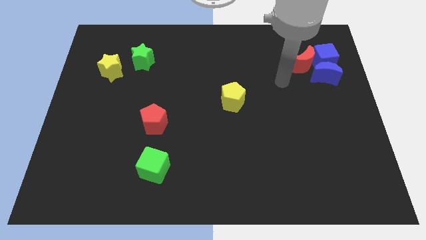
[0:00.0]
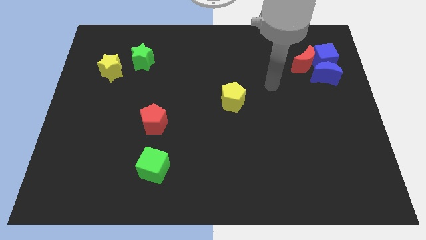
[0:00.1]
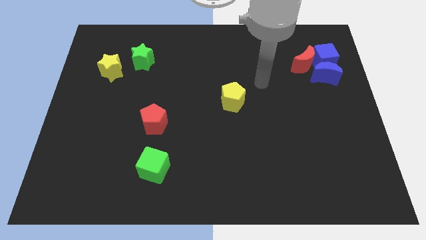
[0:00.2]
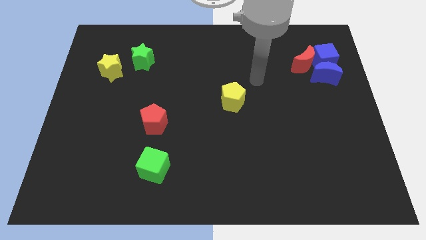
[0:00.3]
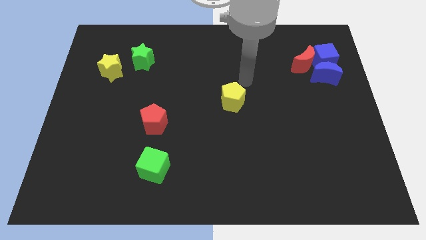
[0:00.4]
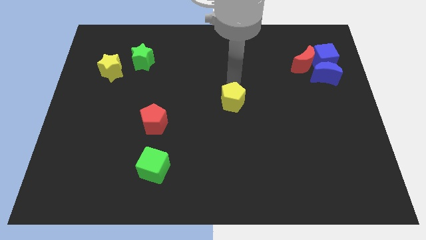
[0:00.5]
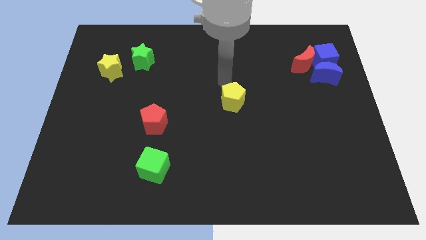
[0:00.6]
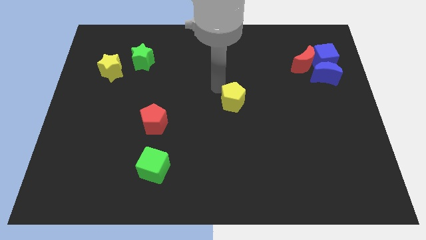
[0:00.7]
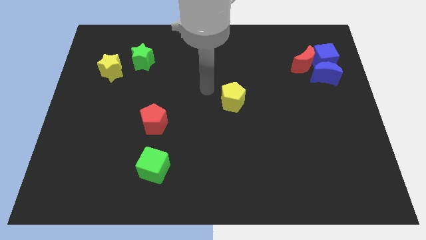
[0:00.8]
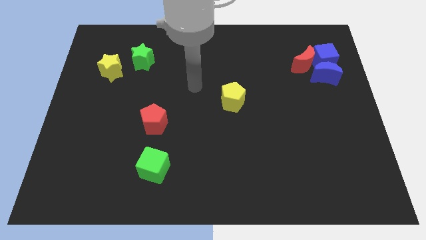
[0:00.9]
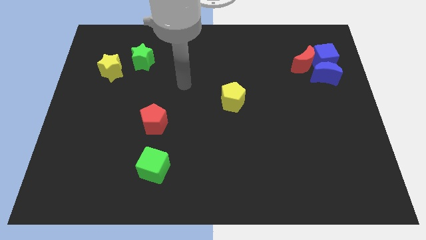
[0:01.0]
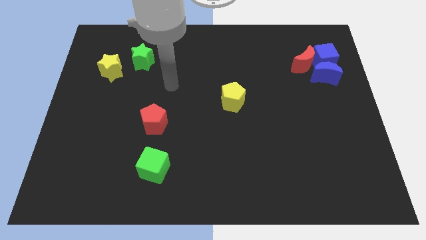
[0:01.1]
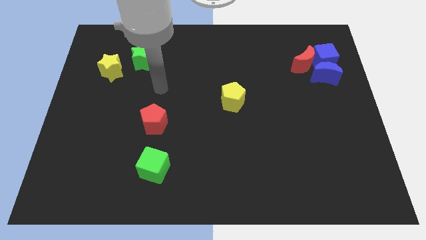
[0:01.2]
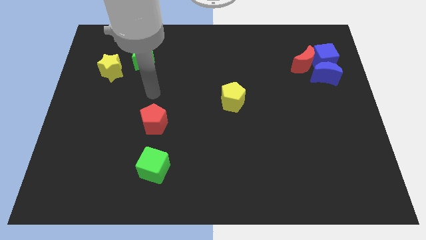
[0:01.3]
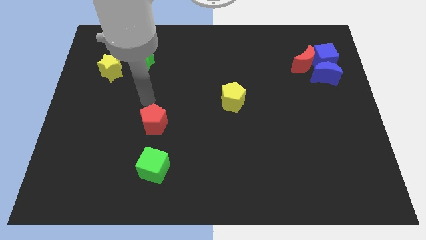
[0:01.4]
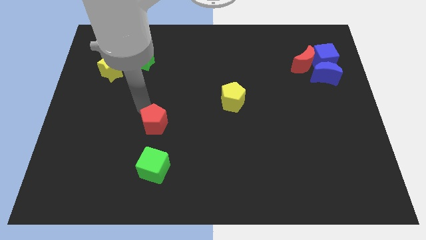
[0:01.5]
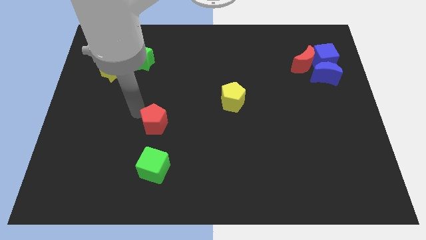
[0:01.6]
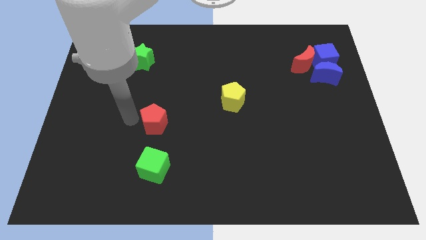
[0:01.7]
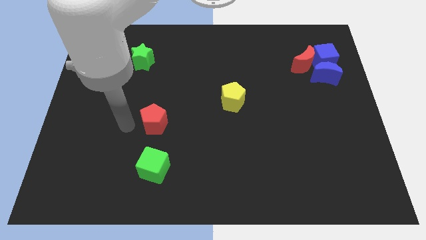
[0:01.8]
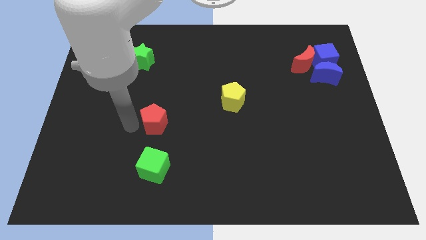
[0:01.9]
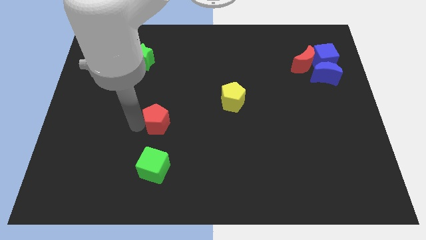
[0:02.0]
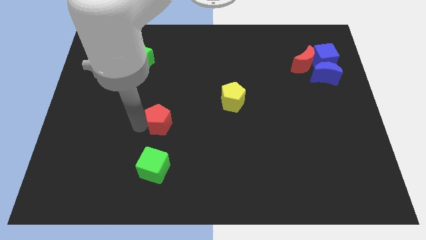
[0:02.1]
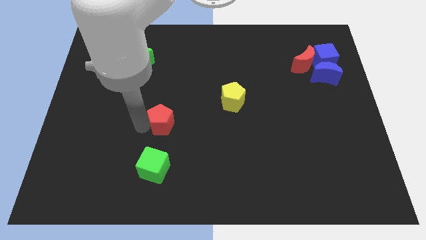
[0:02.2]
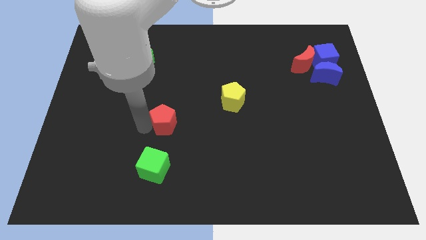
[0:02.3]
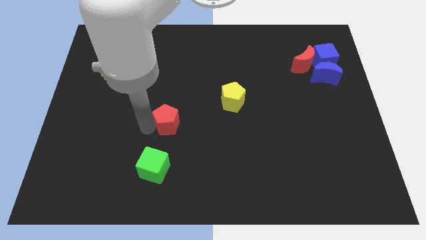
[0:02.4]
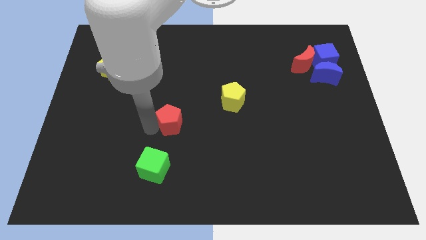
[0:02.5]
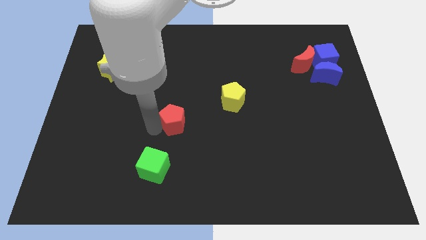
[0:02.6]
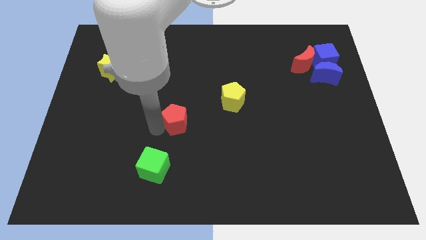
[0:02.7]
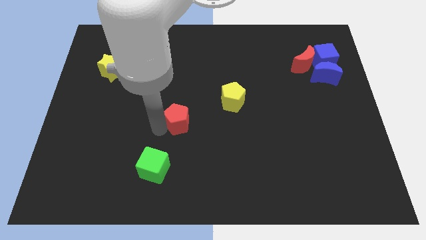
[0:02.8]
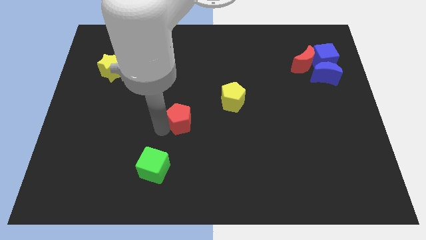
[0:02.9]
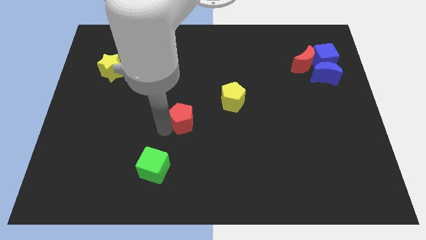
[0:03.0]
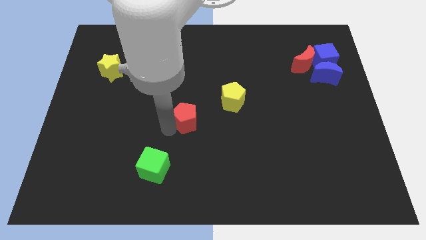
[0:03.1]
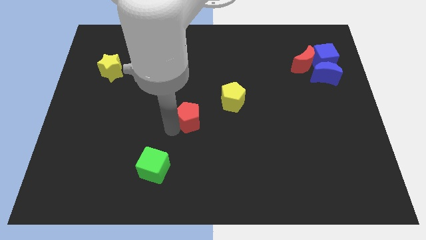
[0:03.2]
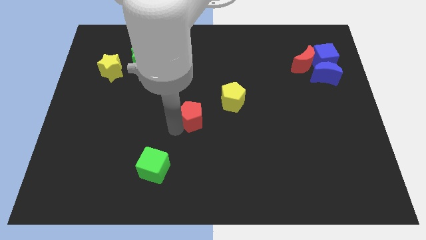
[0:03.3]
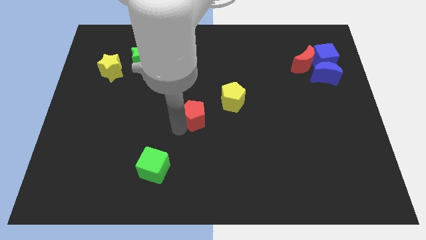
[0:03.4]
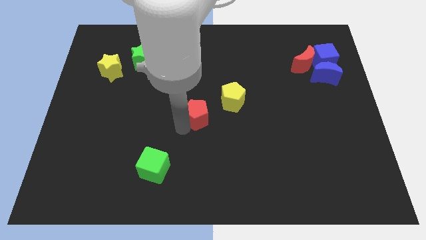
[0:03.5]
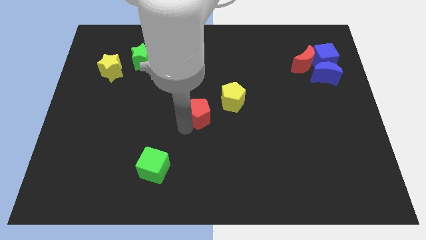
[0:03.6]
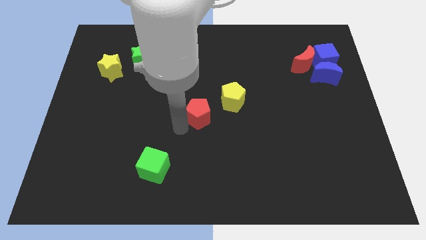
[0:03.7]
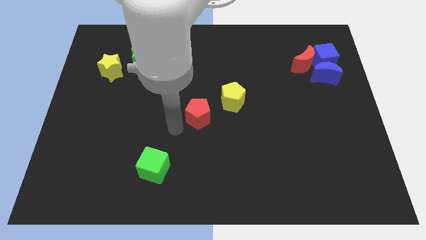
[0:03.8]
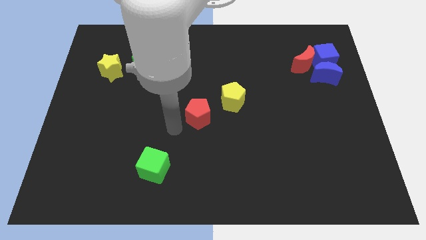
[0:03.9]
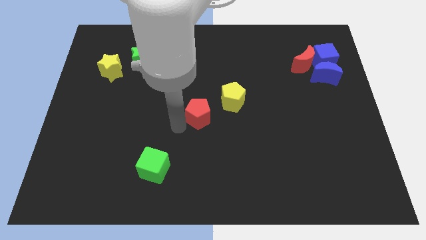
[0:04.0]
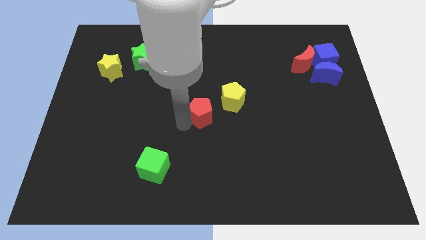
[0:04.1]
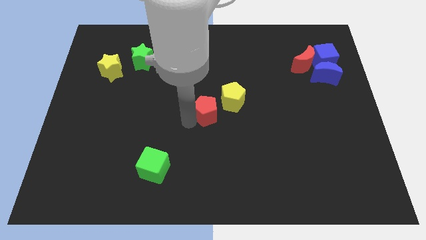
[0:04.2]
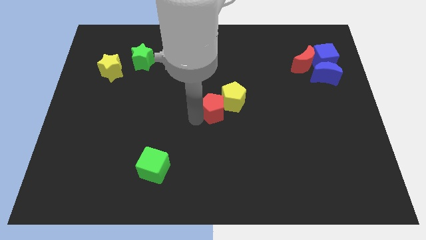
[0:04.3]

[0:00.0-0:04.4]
put the red pentagon towards the yellow pentagon

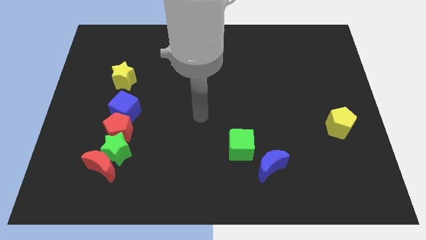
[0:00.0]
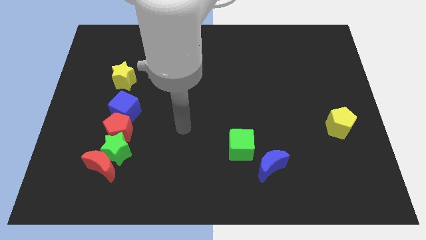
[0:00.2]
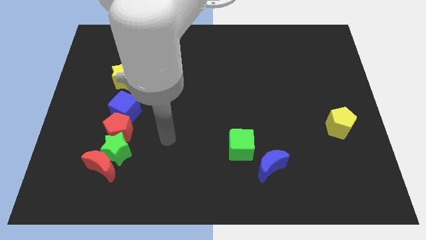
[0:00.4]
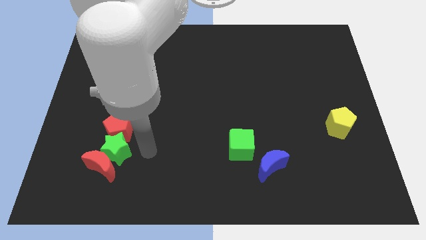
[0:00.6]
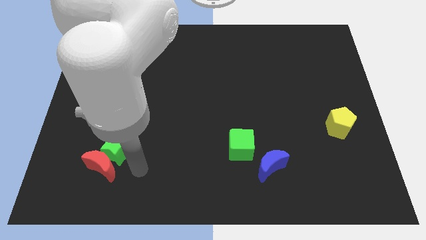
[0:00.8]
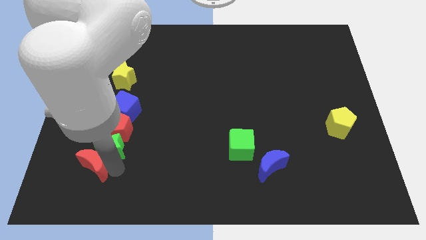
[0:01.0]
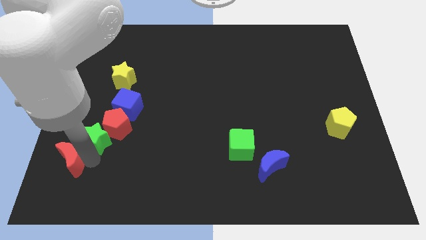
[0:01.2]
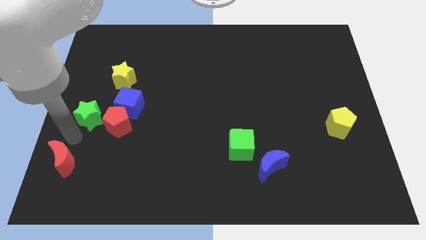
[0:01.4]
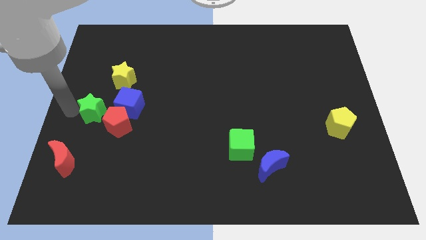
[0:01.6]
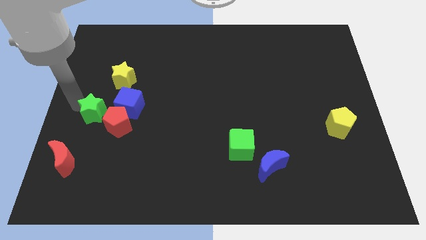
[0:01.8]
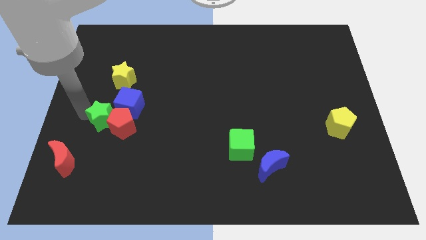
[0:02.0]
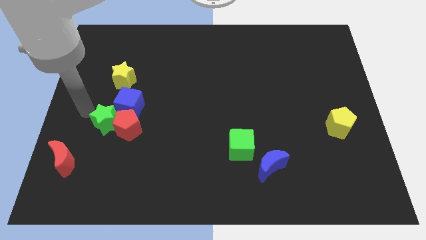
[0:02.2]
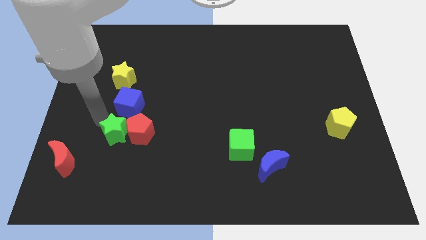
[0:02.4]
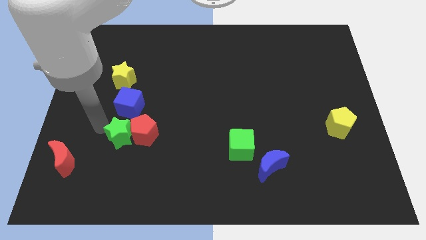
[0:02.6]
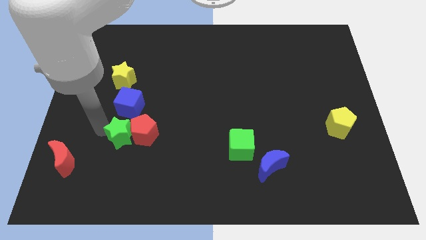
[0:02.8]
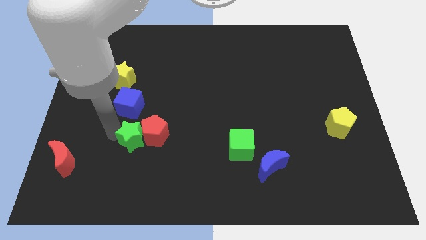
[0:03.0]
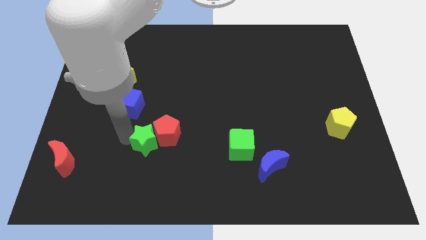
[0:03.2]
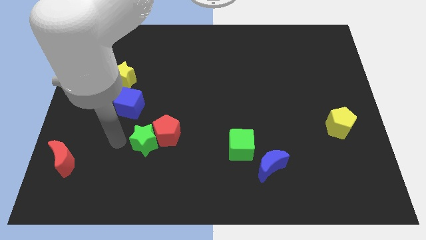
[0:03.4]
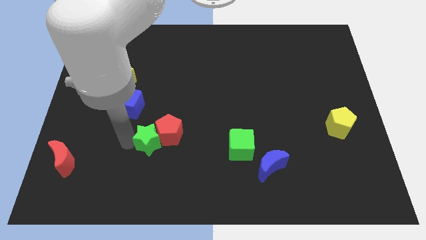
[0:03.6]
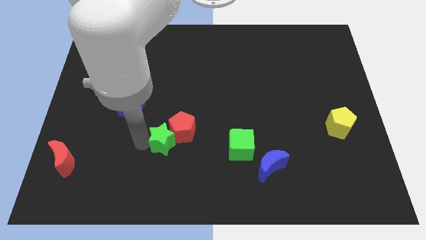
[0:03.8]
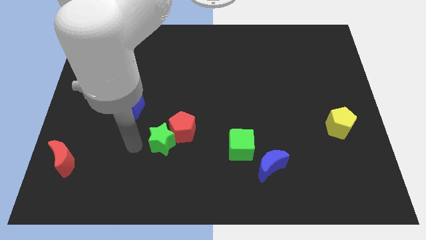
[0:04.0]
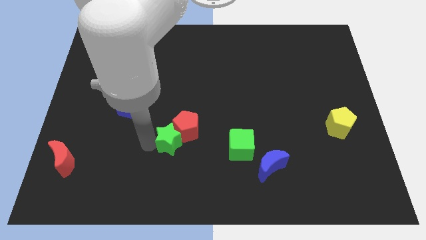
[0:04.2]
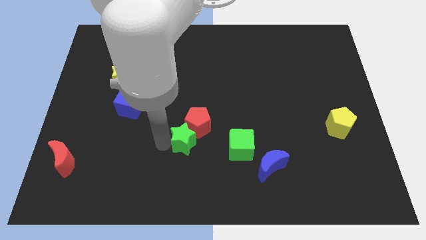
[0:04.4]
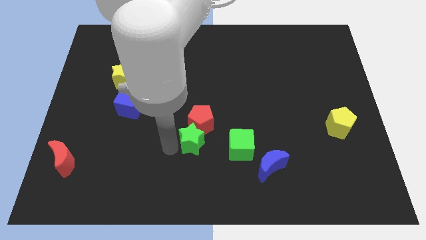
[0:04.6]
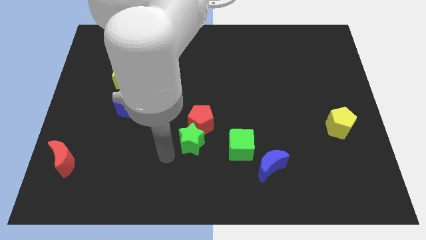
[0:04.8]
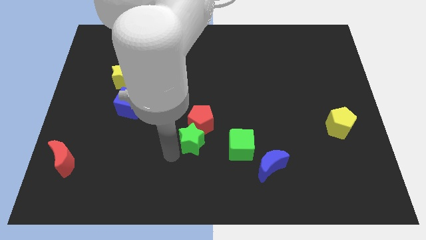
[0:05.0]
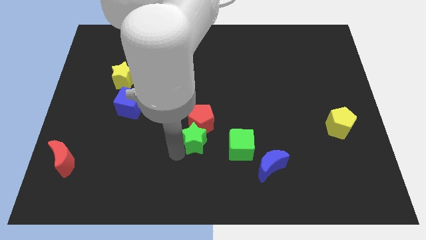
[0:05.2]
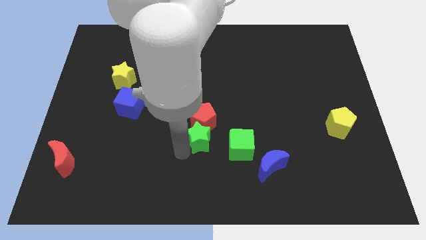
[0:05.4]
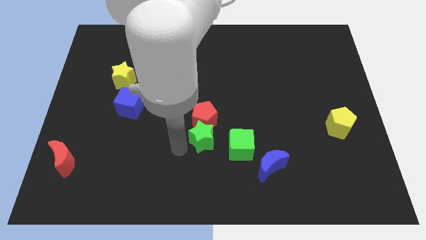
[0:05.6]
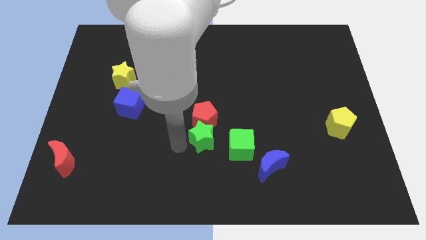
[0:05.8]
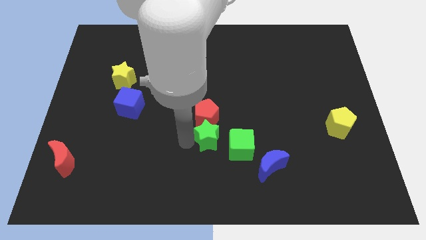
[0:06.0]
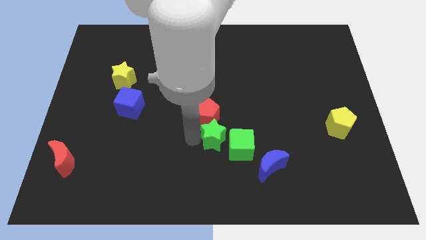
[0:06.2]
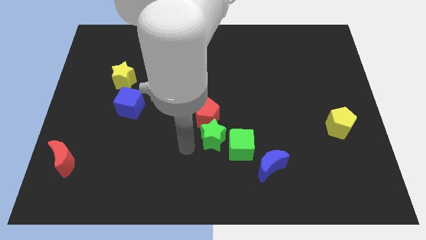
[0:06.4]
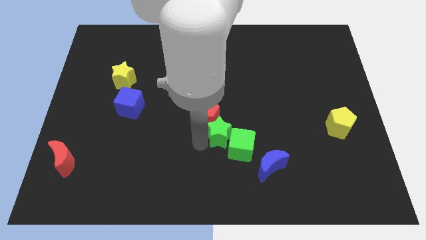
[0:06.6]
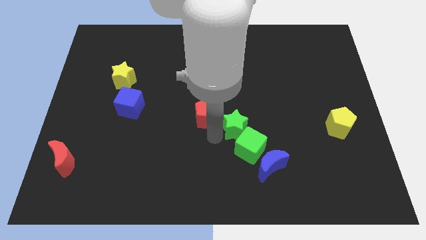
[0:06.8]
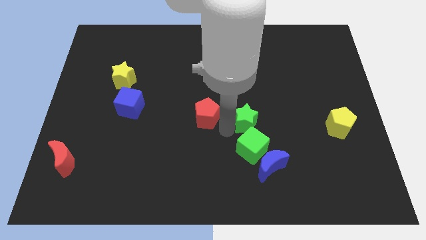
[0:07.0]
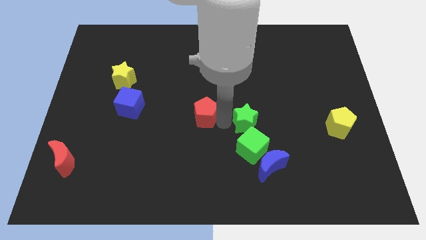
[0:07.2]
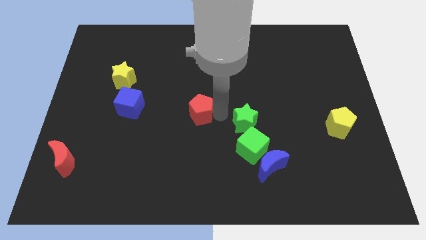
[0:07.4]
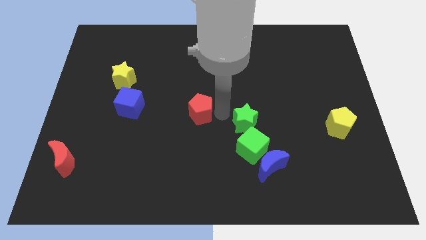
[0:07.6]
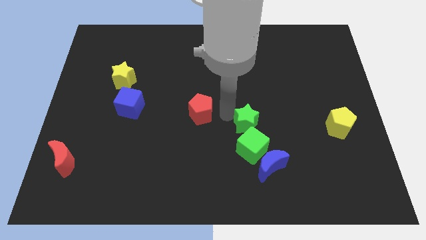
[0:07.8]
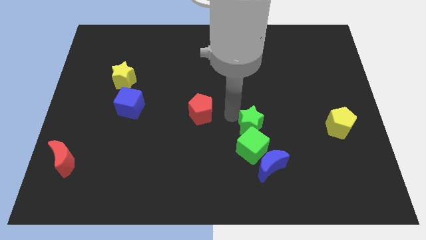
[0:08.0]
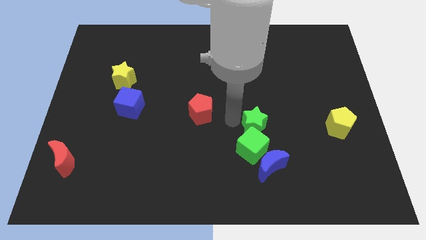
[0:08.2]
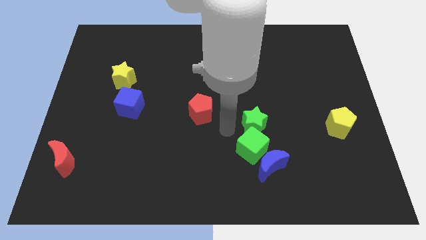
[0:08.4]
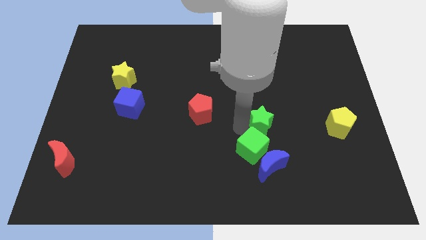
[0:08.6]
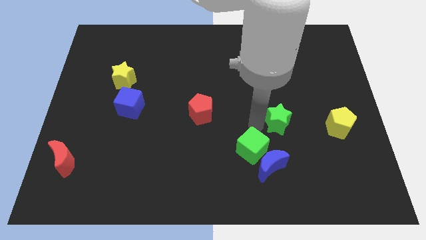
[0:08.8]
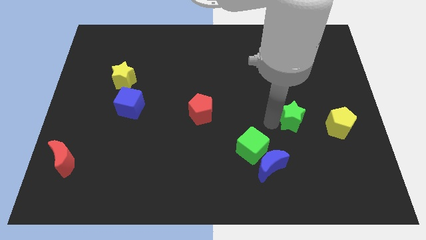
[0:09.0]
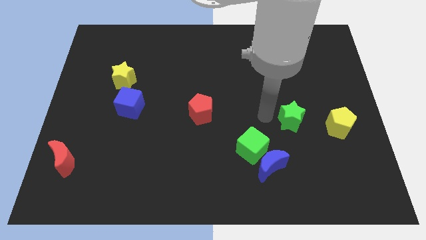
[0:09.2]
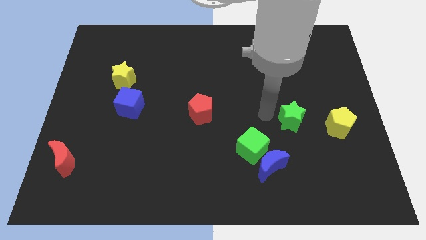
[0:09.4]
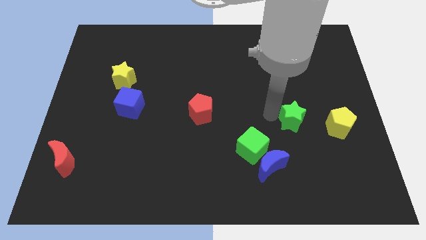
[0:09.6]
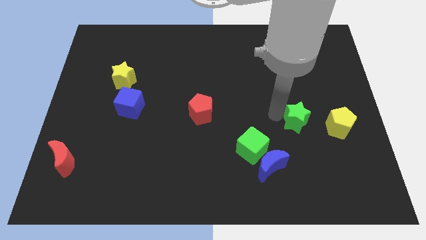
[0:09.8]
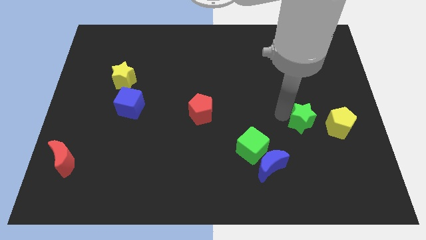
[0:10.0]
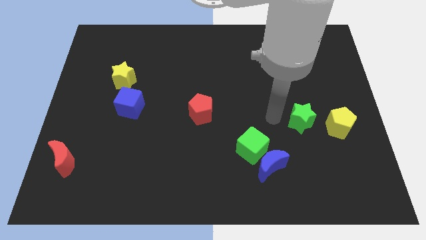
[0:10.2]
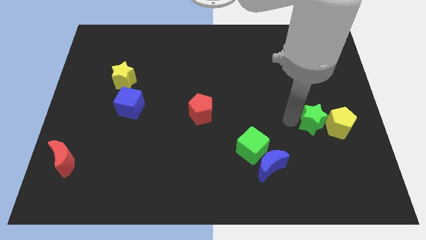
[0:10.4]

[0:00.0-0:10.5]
move the green star to the yellow pentagon
